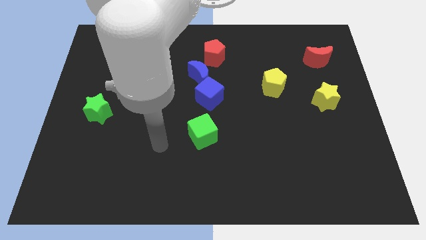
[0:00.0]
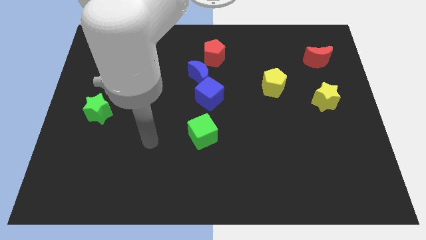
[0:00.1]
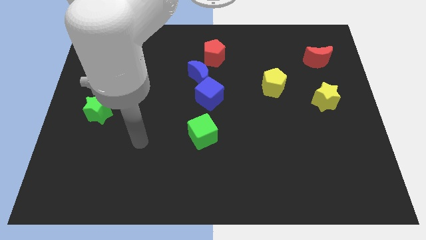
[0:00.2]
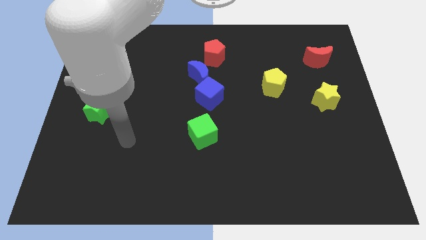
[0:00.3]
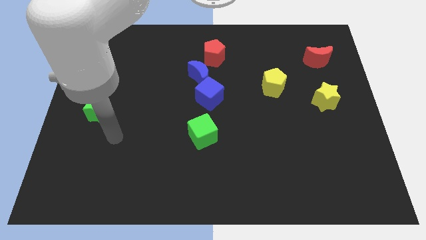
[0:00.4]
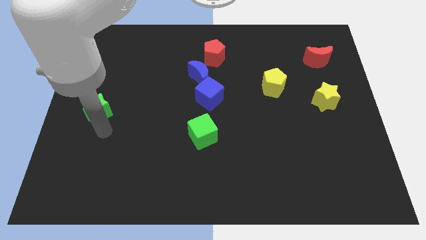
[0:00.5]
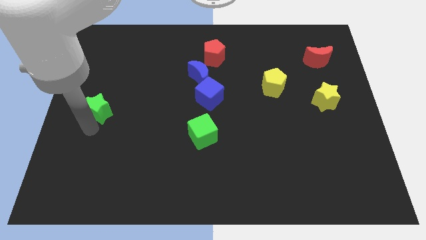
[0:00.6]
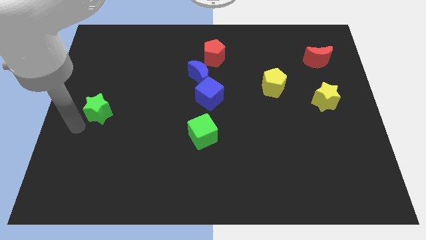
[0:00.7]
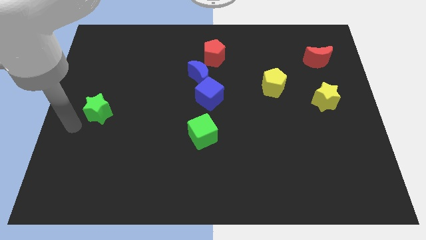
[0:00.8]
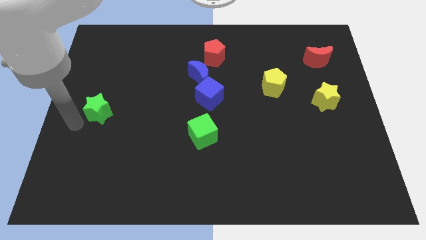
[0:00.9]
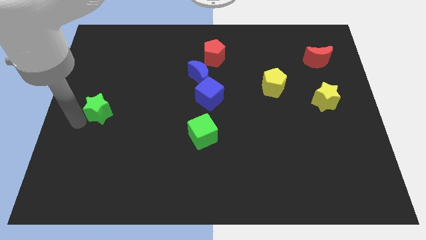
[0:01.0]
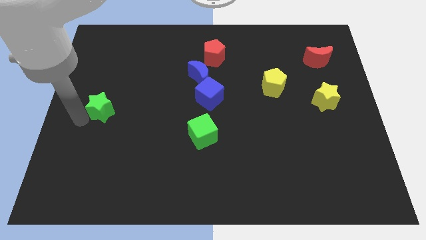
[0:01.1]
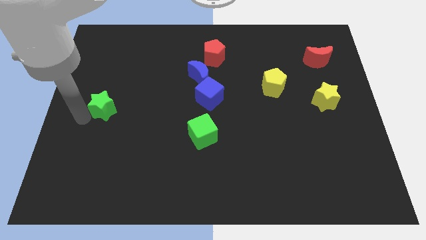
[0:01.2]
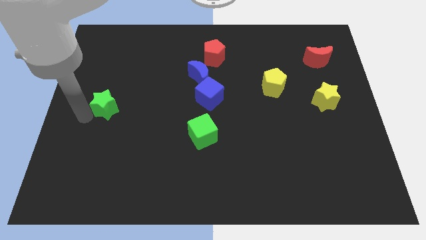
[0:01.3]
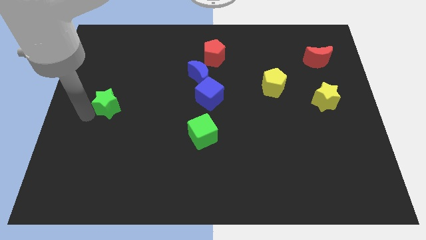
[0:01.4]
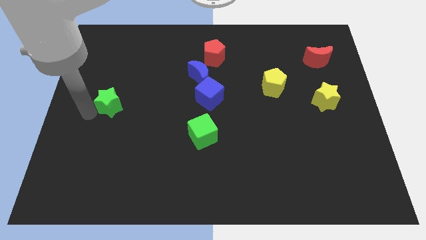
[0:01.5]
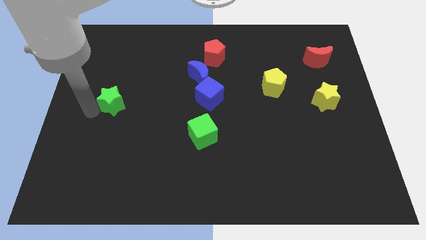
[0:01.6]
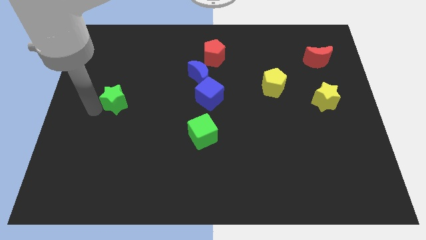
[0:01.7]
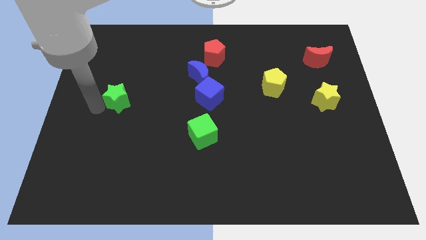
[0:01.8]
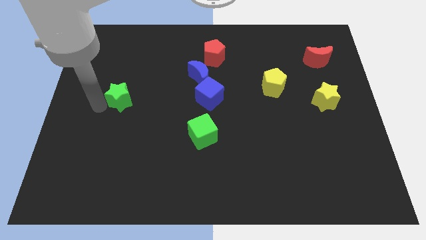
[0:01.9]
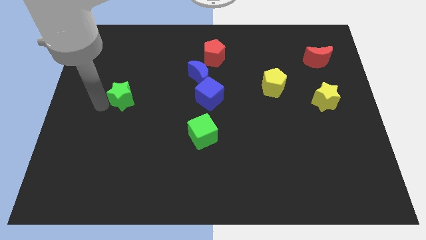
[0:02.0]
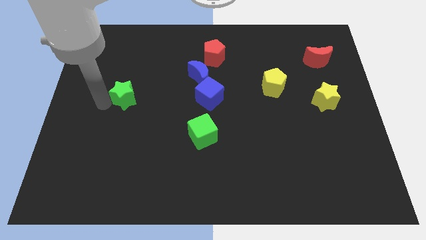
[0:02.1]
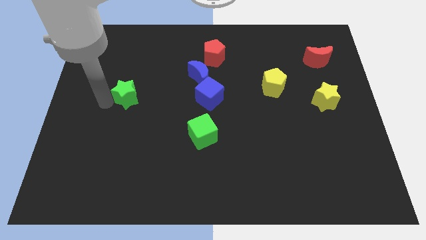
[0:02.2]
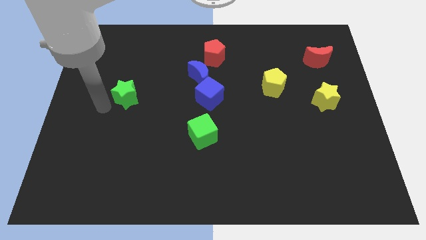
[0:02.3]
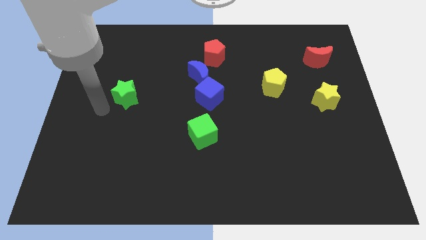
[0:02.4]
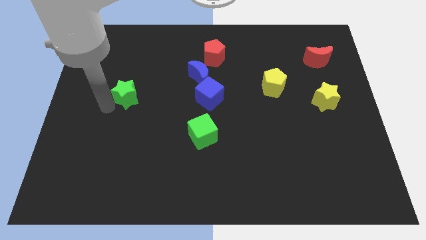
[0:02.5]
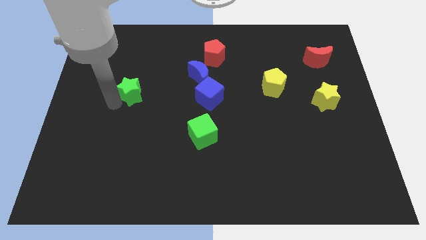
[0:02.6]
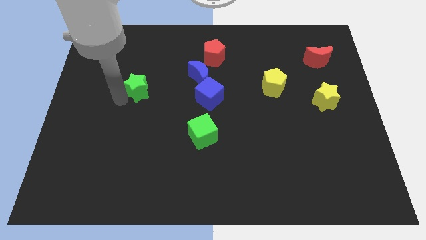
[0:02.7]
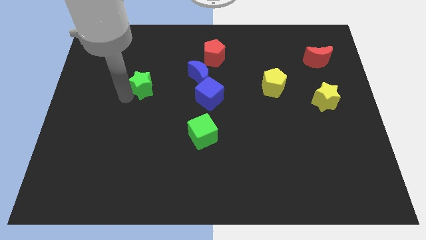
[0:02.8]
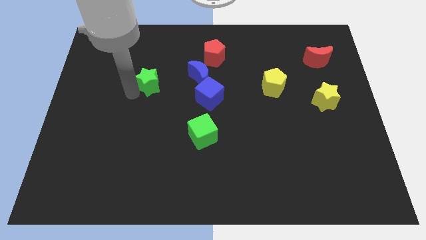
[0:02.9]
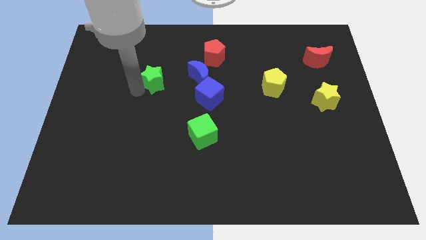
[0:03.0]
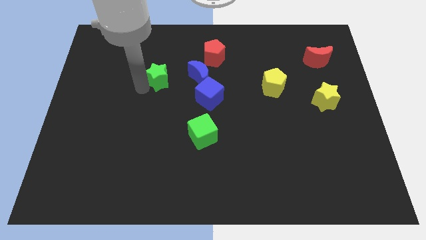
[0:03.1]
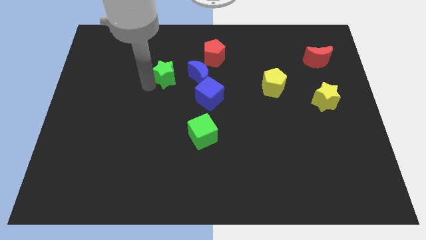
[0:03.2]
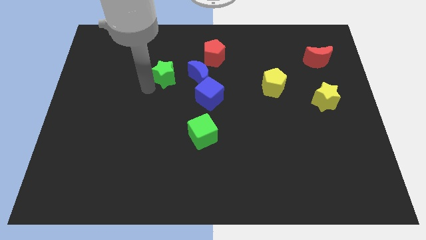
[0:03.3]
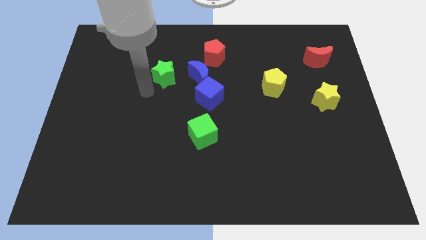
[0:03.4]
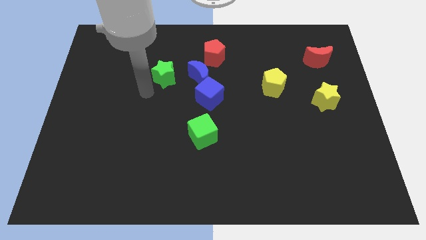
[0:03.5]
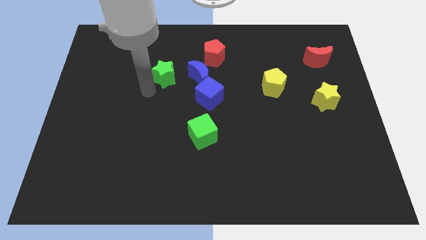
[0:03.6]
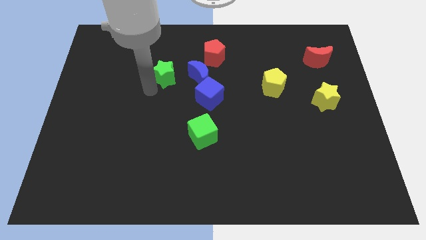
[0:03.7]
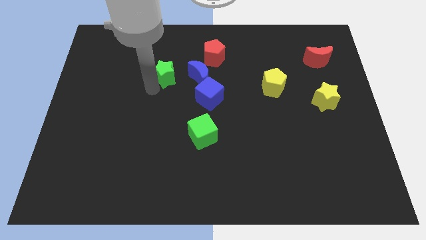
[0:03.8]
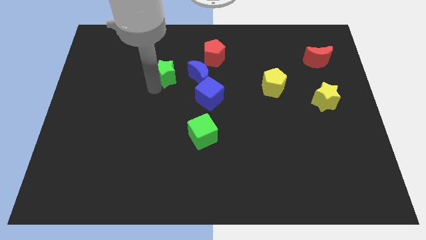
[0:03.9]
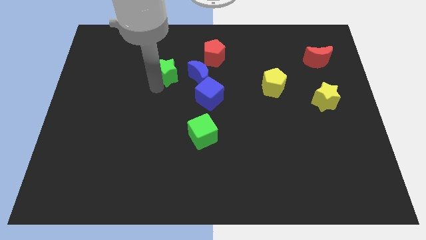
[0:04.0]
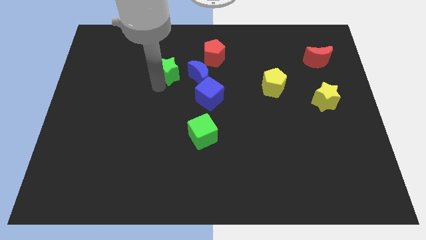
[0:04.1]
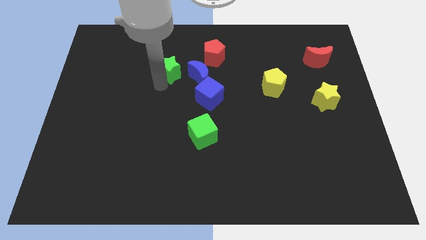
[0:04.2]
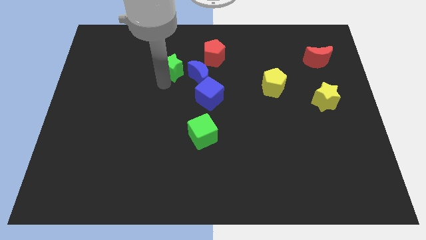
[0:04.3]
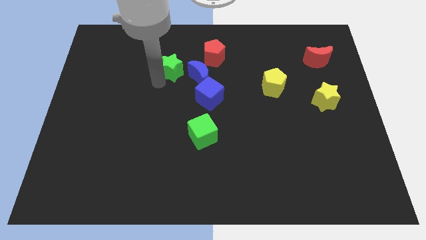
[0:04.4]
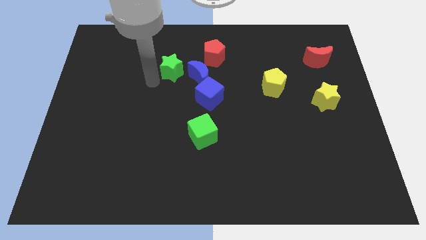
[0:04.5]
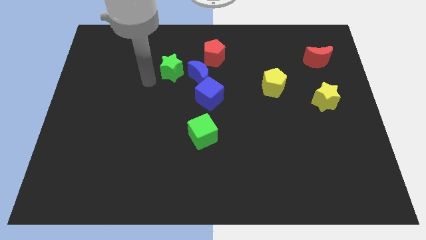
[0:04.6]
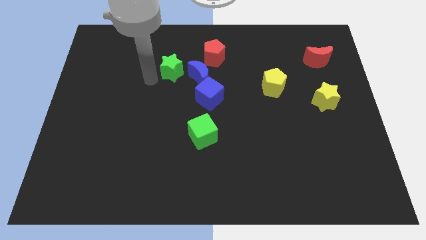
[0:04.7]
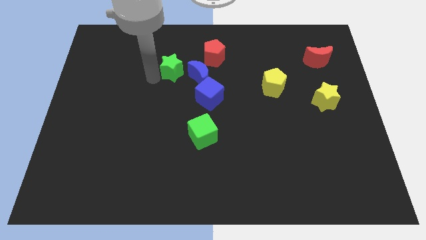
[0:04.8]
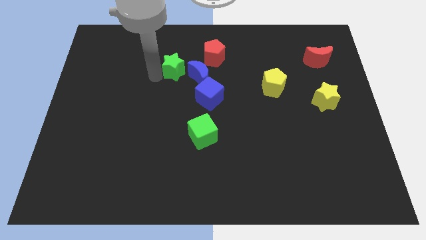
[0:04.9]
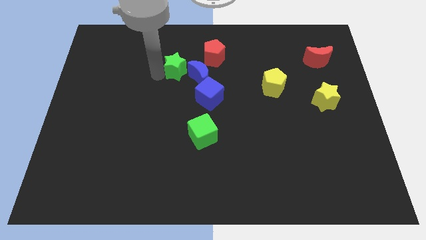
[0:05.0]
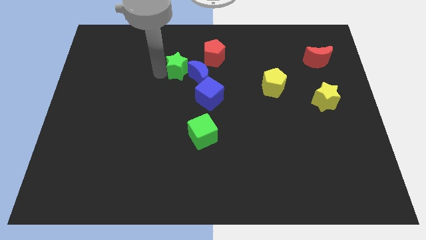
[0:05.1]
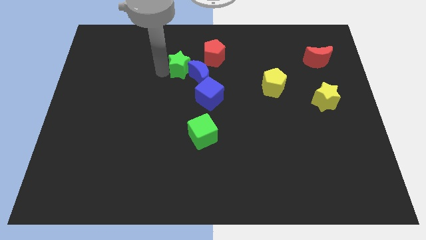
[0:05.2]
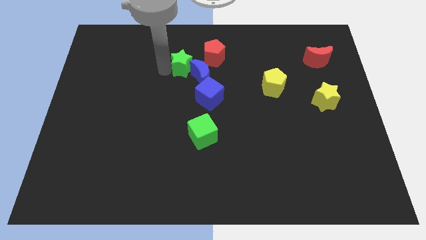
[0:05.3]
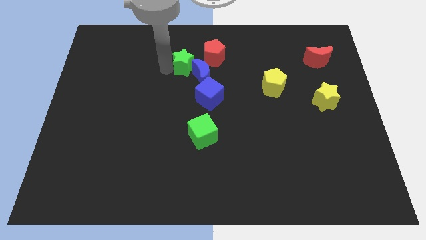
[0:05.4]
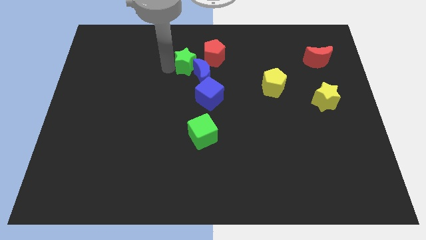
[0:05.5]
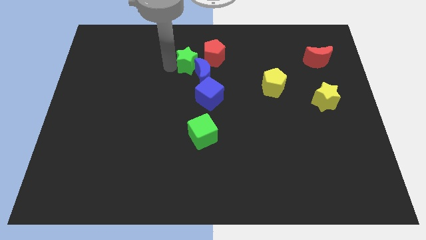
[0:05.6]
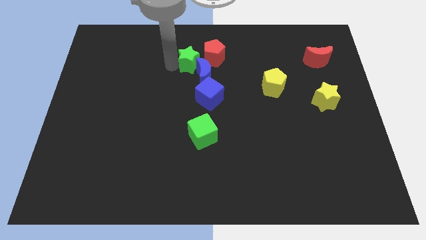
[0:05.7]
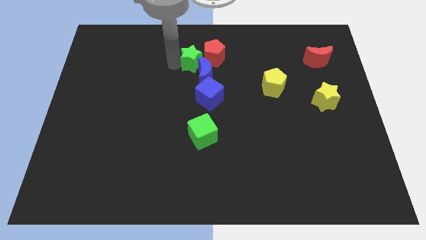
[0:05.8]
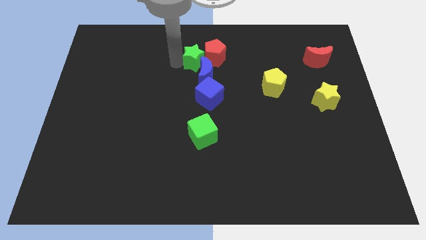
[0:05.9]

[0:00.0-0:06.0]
push the green star towards the red pentagon

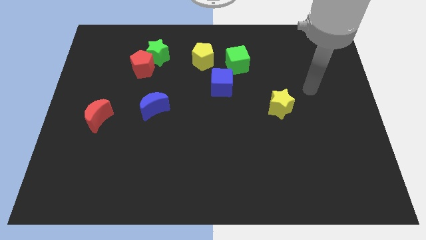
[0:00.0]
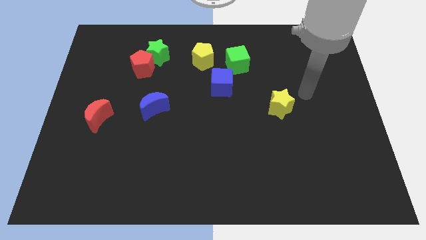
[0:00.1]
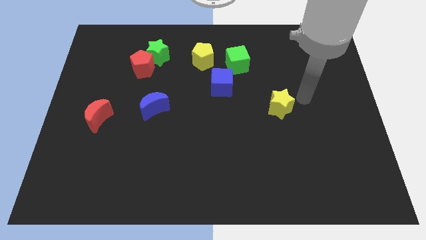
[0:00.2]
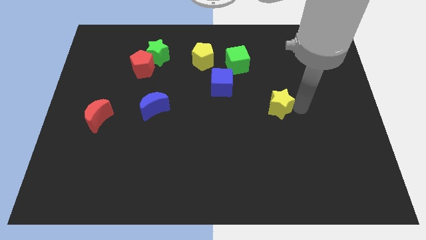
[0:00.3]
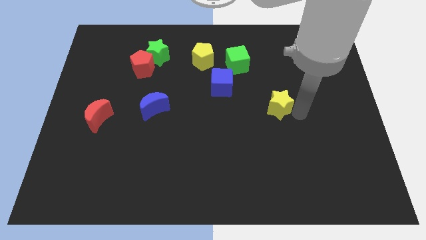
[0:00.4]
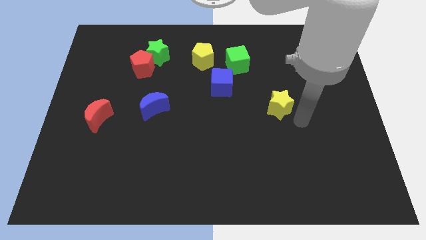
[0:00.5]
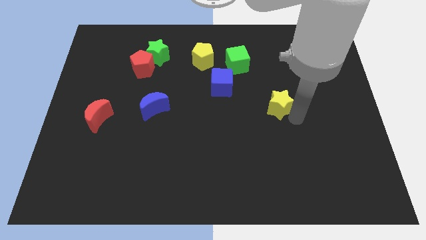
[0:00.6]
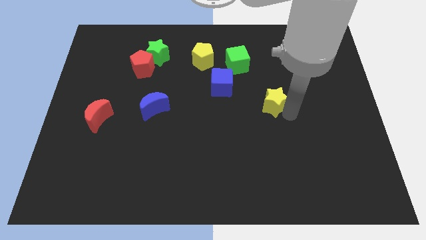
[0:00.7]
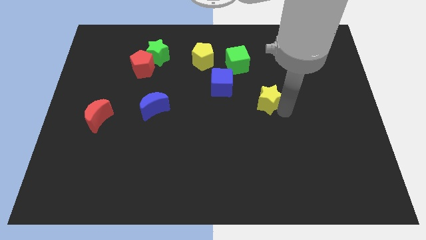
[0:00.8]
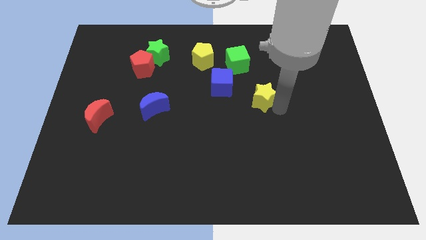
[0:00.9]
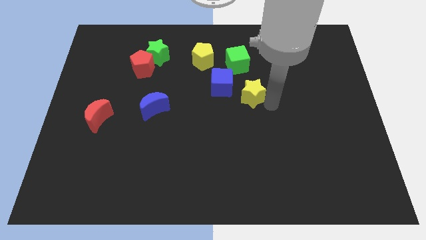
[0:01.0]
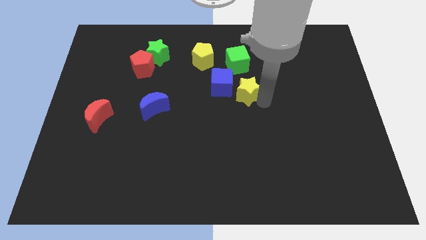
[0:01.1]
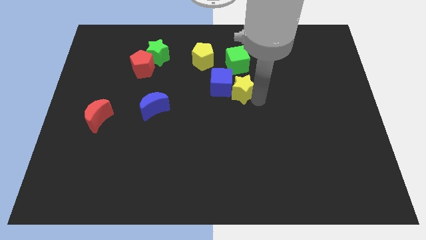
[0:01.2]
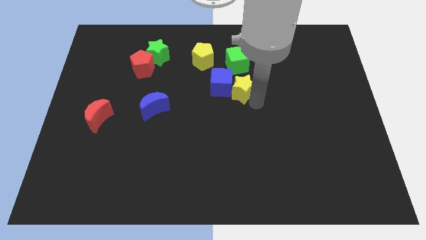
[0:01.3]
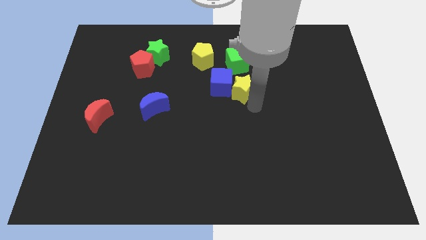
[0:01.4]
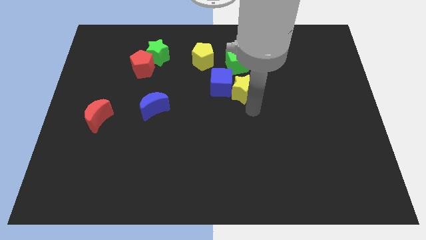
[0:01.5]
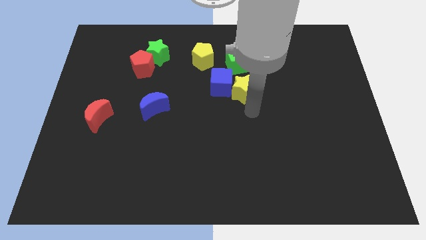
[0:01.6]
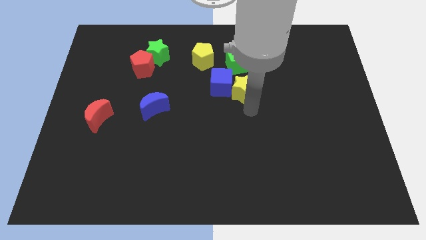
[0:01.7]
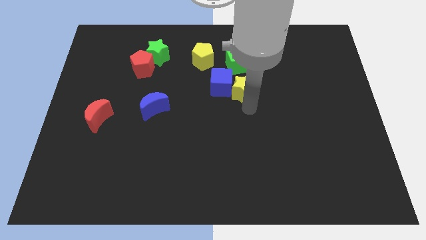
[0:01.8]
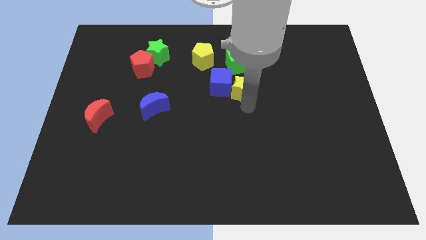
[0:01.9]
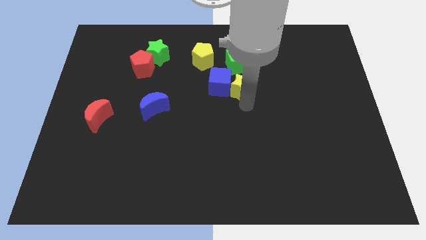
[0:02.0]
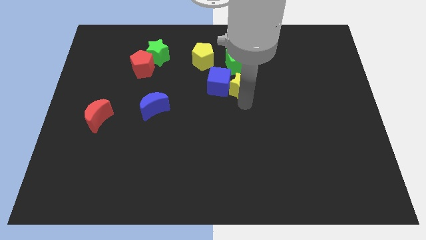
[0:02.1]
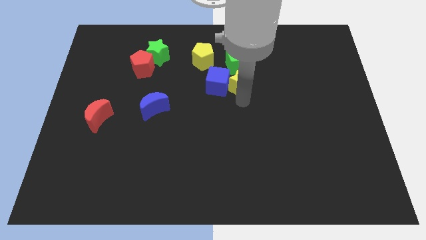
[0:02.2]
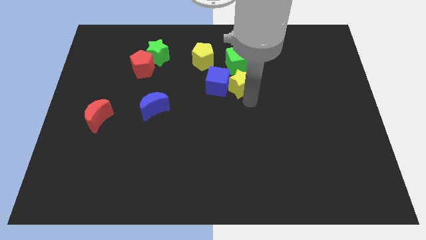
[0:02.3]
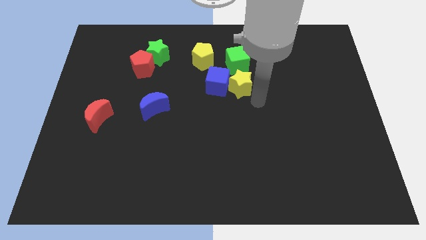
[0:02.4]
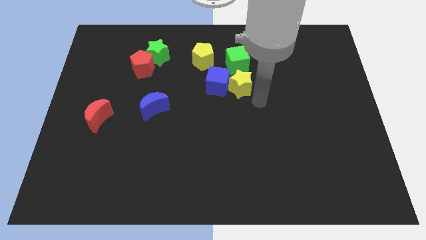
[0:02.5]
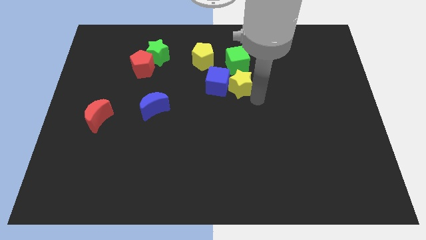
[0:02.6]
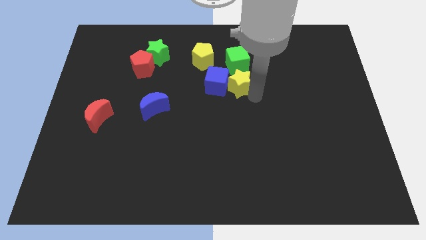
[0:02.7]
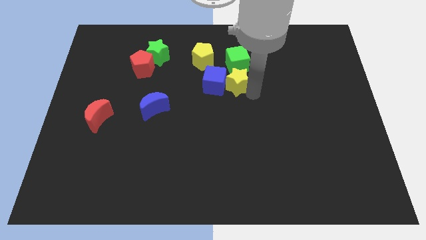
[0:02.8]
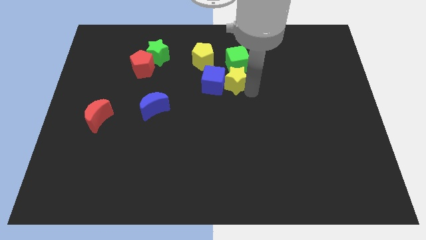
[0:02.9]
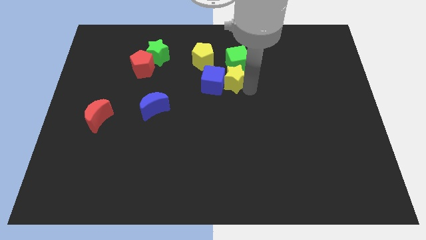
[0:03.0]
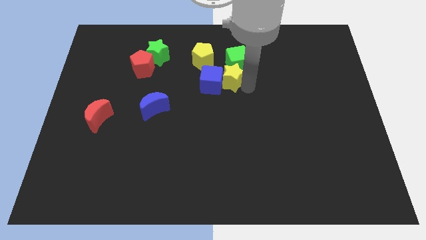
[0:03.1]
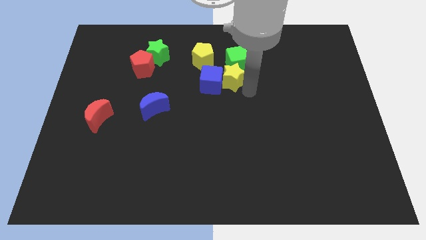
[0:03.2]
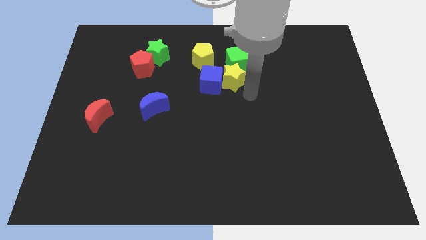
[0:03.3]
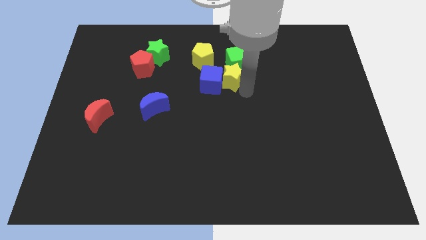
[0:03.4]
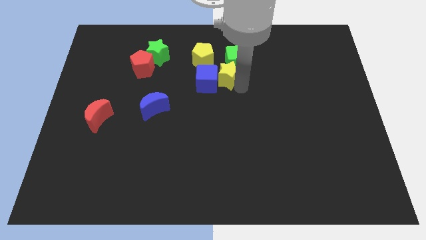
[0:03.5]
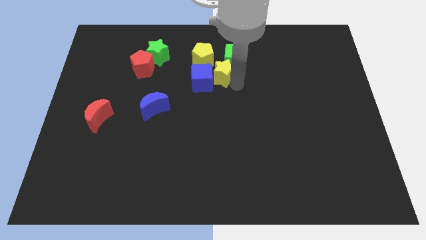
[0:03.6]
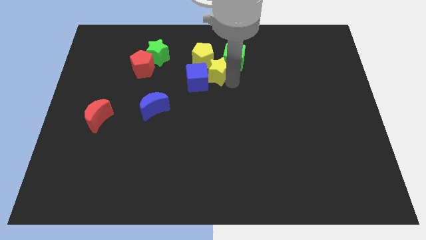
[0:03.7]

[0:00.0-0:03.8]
push the yellow star towards the yellow pentagon
